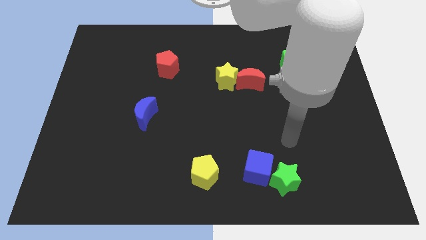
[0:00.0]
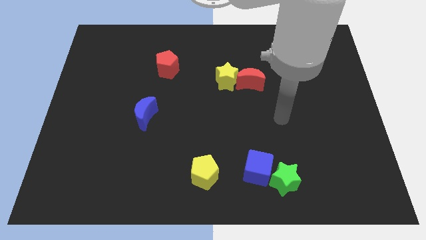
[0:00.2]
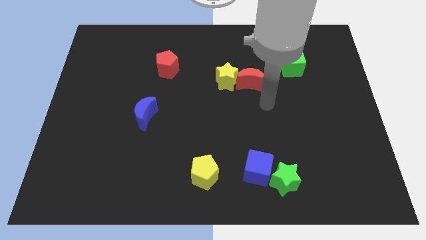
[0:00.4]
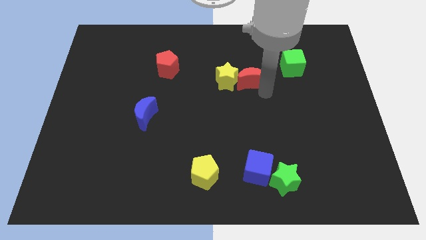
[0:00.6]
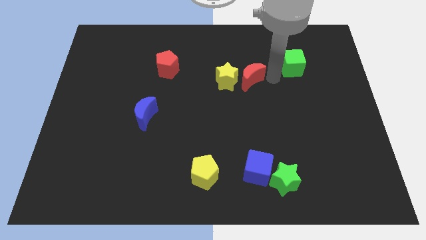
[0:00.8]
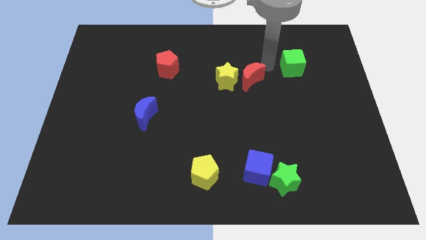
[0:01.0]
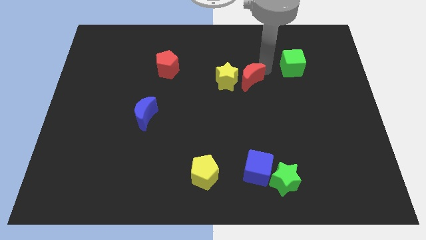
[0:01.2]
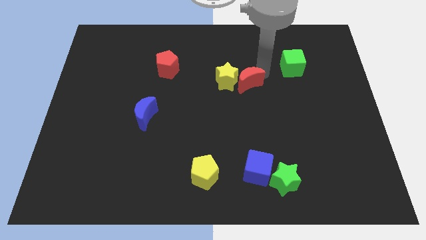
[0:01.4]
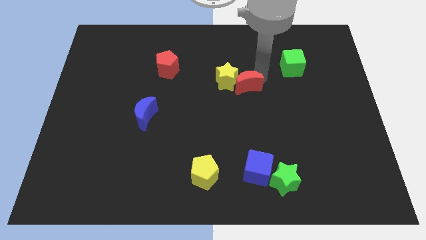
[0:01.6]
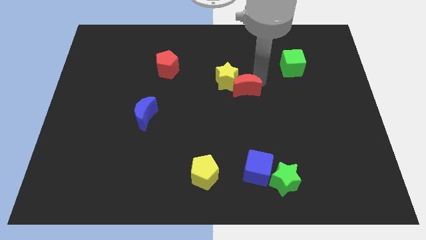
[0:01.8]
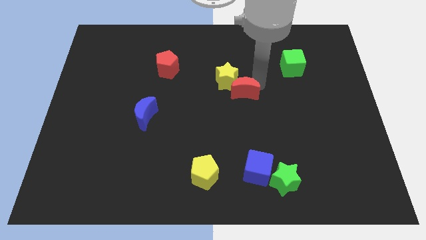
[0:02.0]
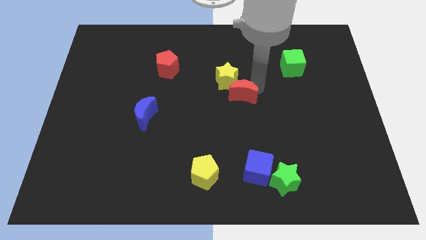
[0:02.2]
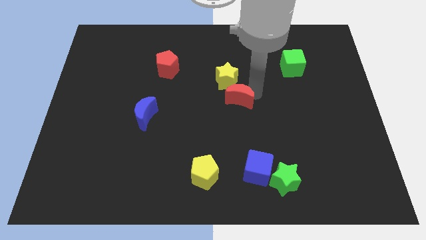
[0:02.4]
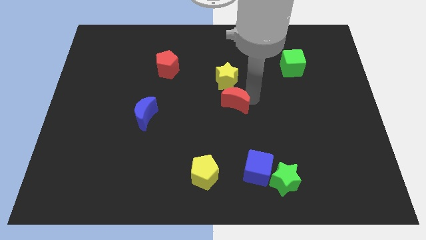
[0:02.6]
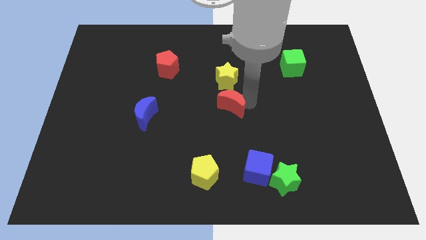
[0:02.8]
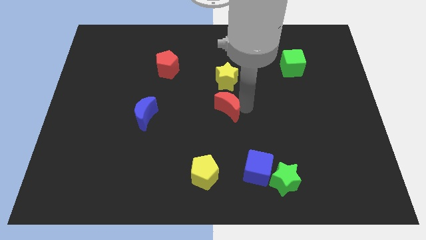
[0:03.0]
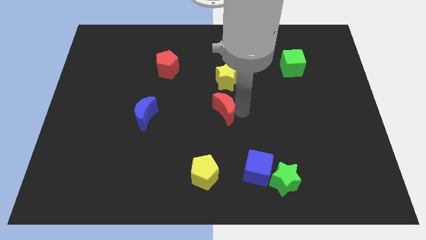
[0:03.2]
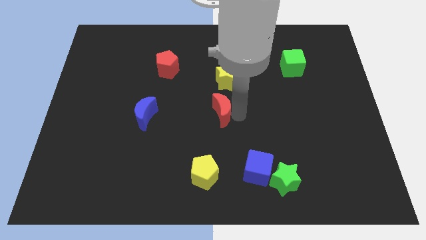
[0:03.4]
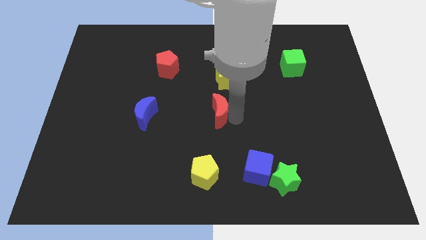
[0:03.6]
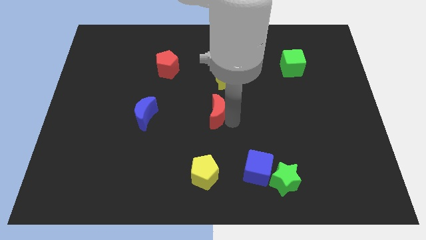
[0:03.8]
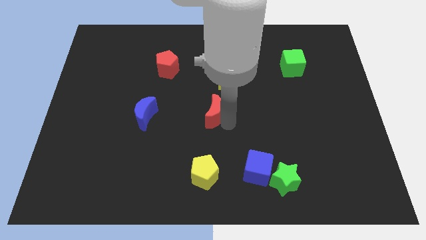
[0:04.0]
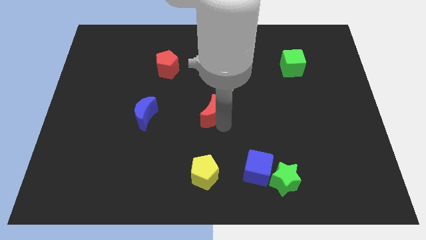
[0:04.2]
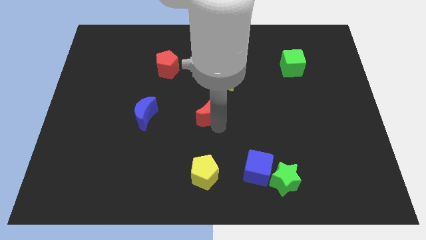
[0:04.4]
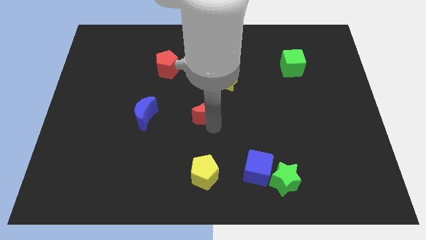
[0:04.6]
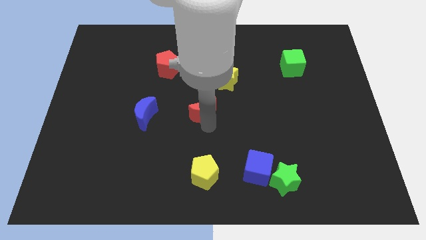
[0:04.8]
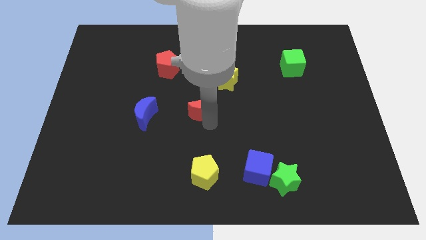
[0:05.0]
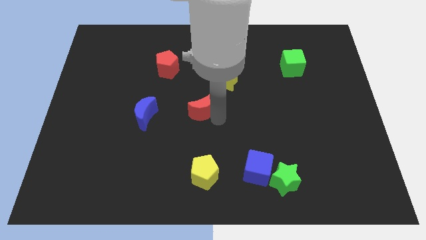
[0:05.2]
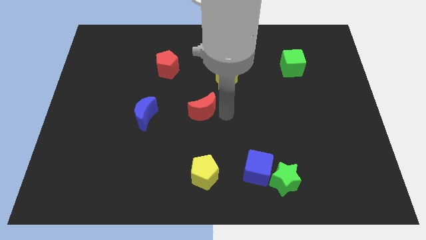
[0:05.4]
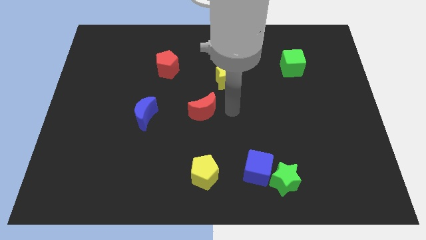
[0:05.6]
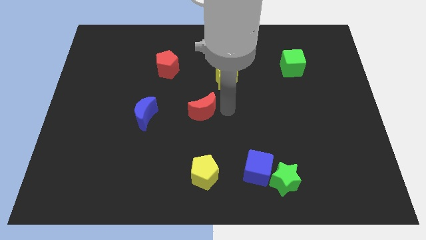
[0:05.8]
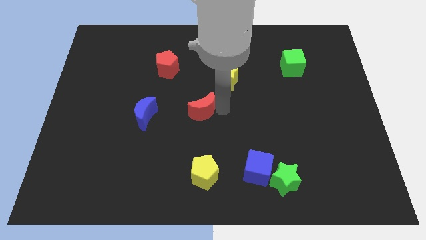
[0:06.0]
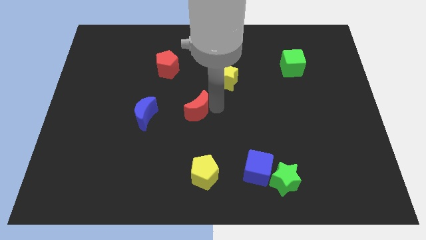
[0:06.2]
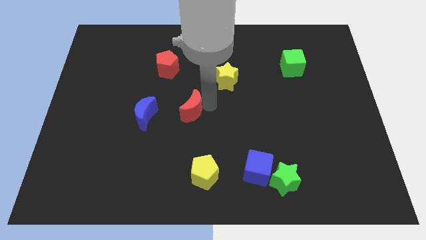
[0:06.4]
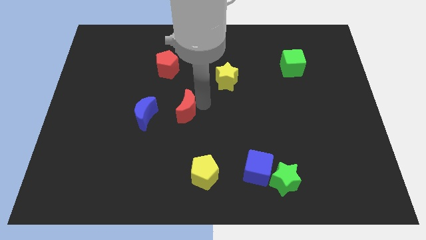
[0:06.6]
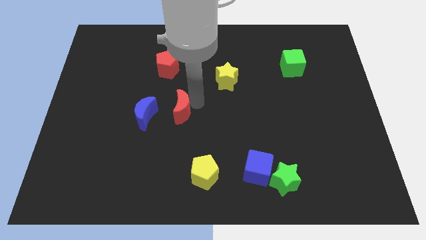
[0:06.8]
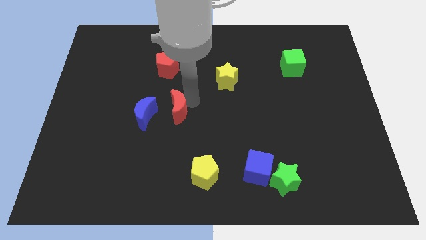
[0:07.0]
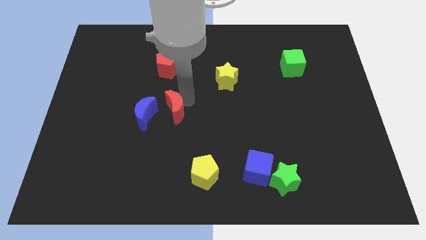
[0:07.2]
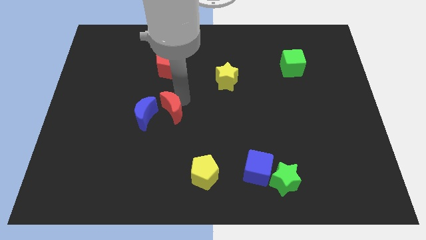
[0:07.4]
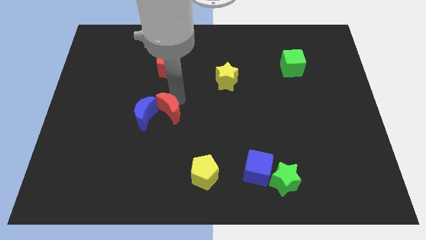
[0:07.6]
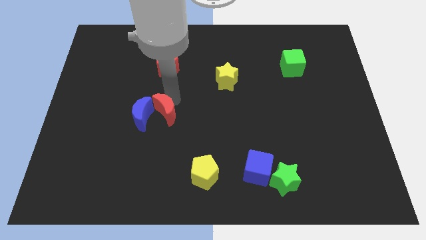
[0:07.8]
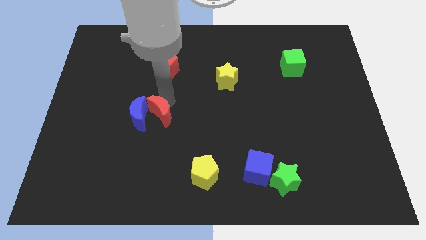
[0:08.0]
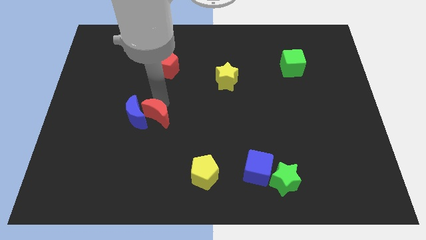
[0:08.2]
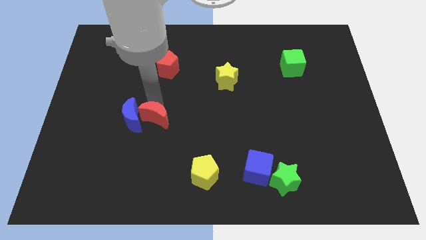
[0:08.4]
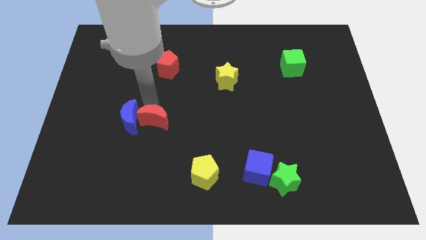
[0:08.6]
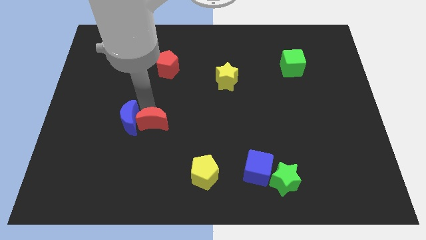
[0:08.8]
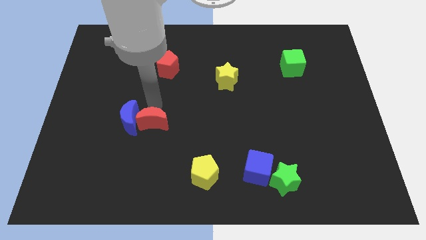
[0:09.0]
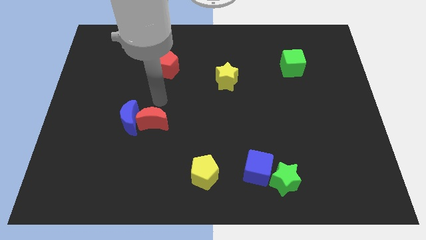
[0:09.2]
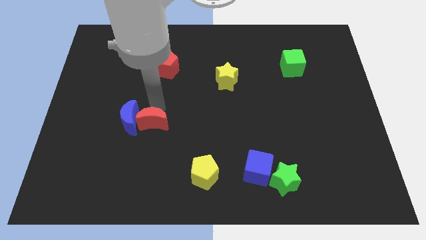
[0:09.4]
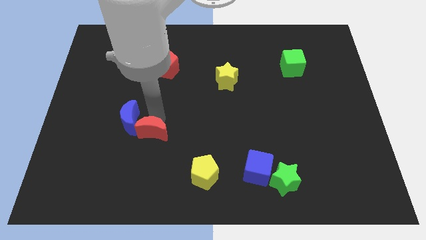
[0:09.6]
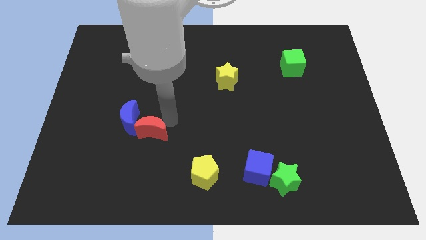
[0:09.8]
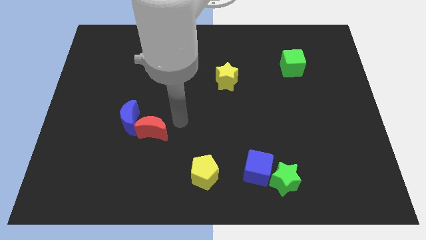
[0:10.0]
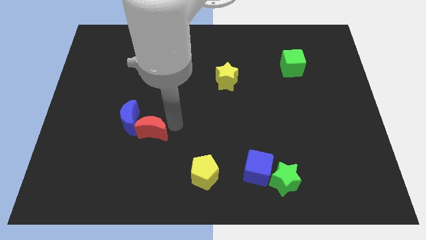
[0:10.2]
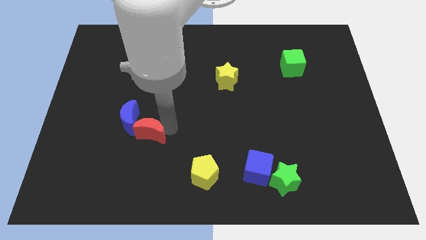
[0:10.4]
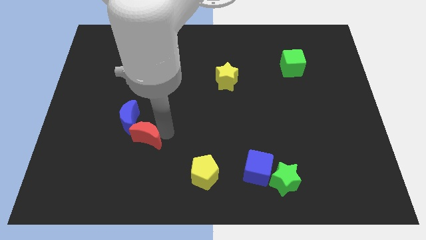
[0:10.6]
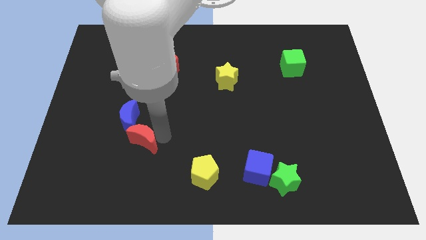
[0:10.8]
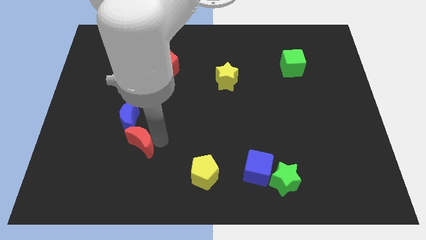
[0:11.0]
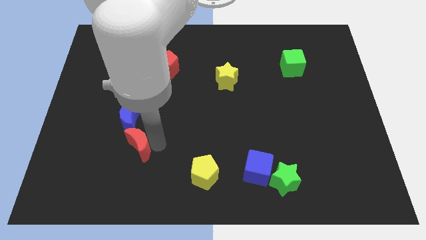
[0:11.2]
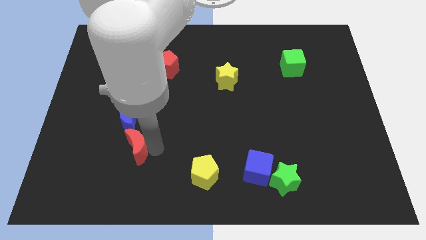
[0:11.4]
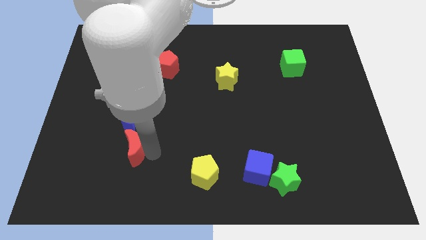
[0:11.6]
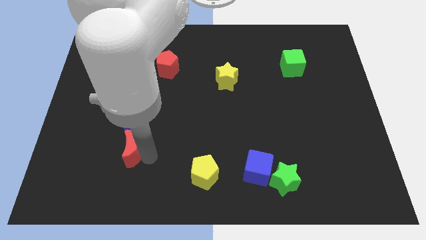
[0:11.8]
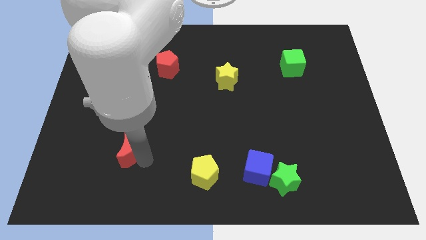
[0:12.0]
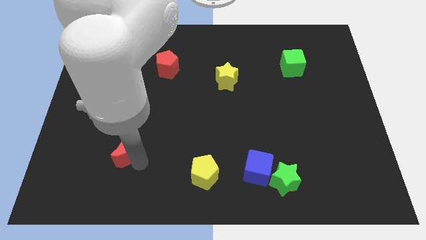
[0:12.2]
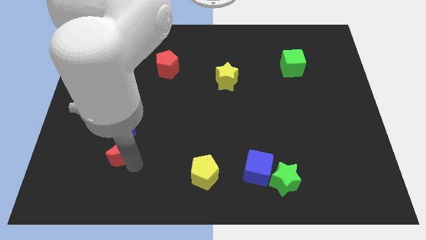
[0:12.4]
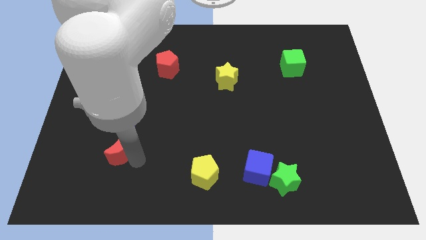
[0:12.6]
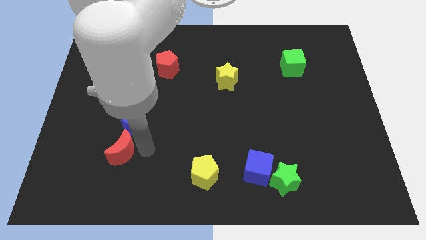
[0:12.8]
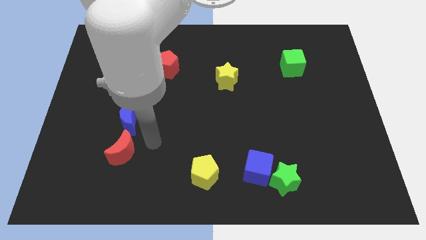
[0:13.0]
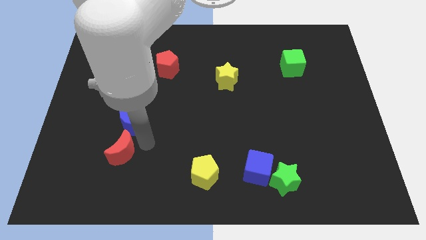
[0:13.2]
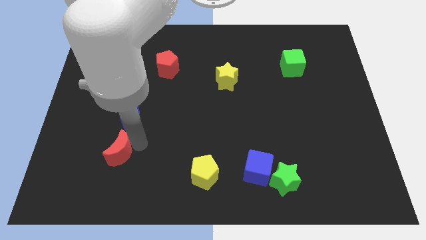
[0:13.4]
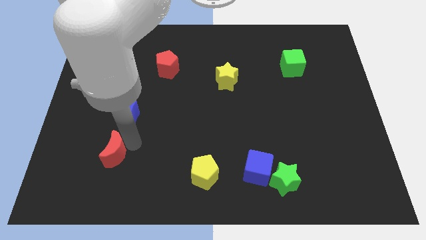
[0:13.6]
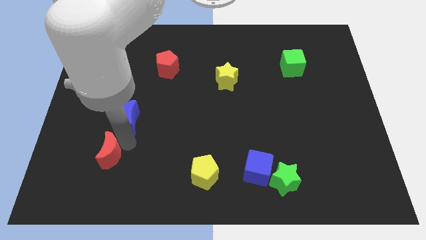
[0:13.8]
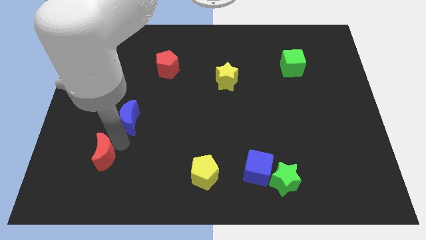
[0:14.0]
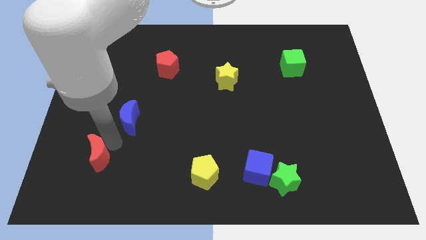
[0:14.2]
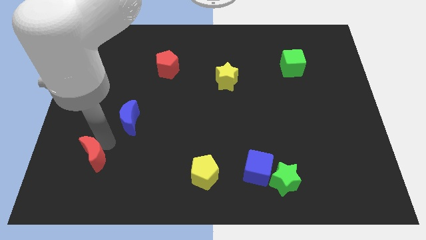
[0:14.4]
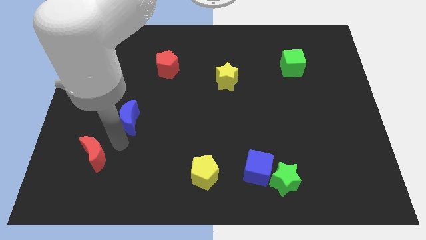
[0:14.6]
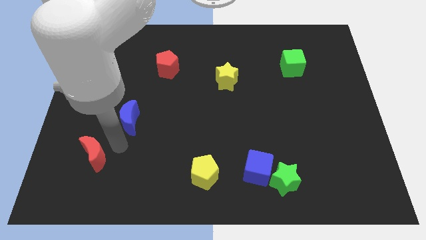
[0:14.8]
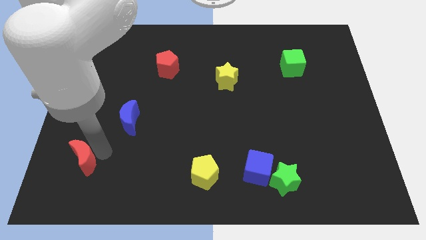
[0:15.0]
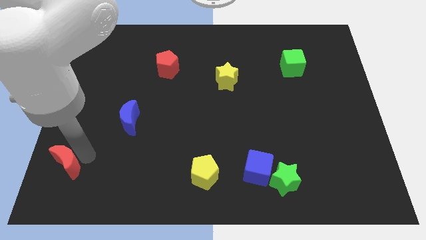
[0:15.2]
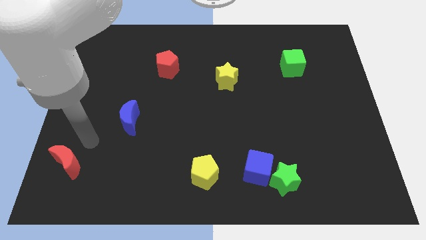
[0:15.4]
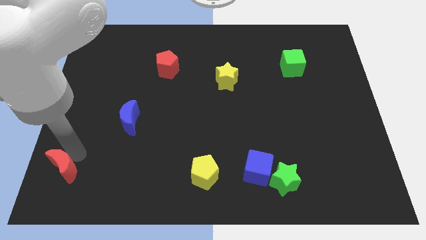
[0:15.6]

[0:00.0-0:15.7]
put the red moon to the bottom left corner
